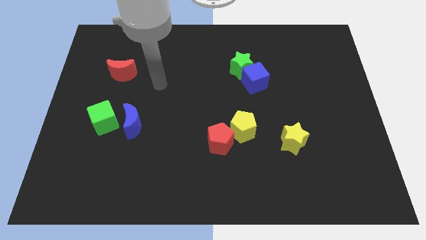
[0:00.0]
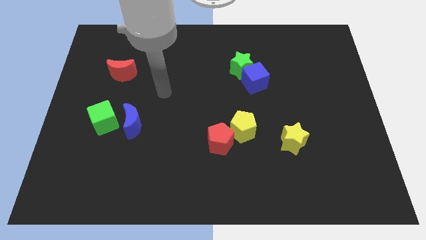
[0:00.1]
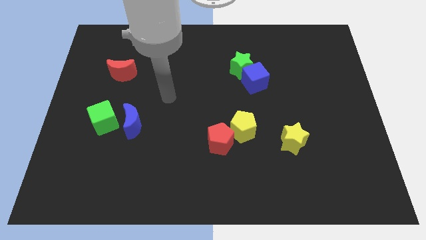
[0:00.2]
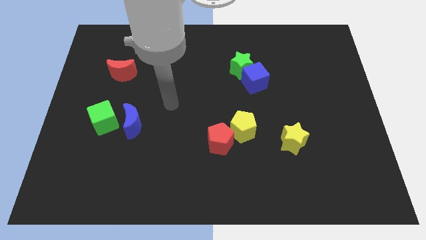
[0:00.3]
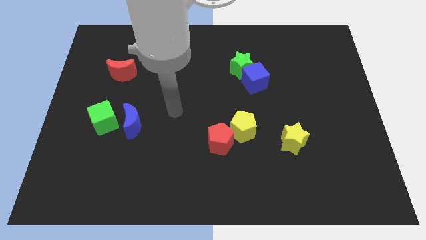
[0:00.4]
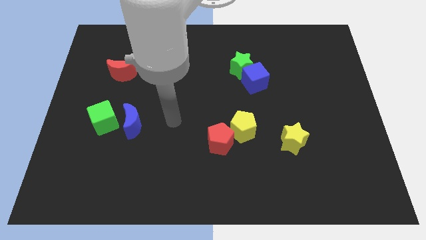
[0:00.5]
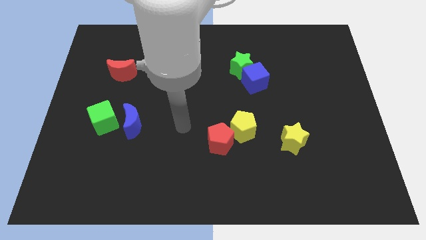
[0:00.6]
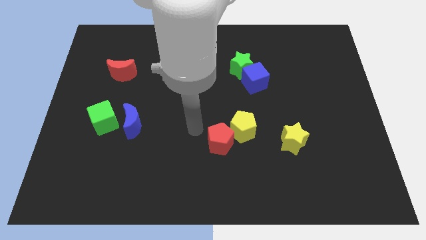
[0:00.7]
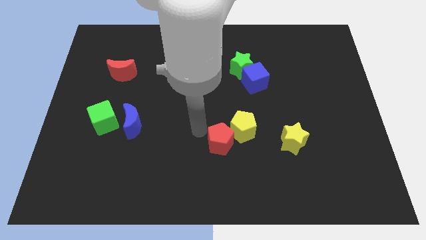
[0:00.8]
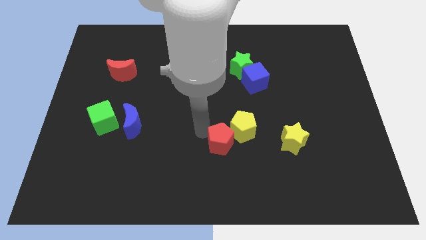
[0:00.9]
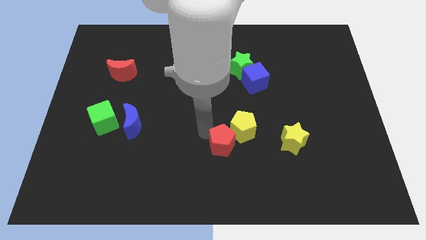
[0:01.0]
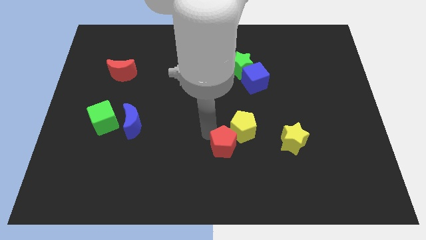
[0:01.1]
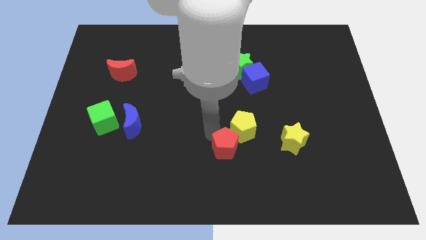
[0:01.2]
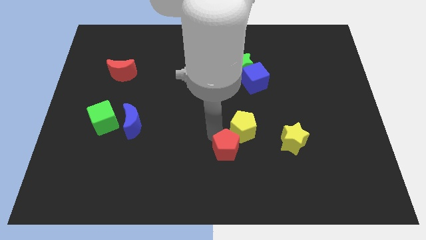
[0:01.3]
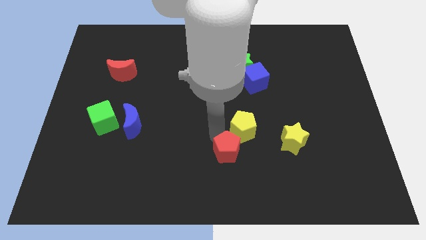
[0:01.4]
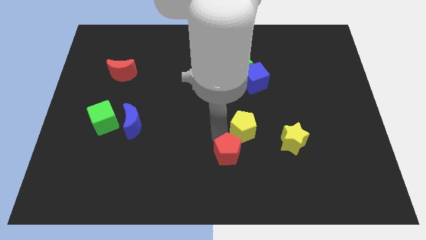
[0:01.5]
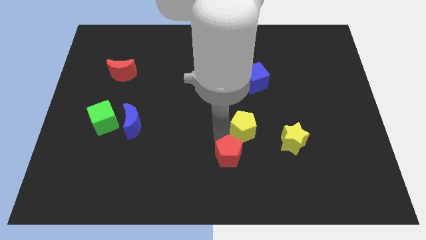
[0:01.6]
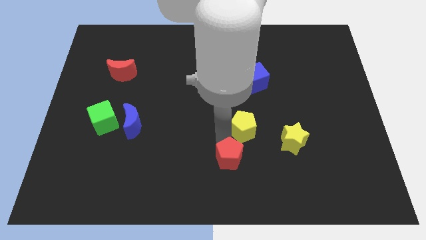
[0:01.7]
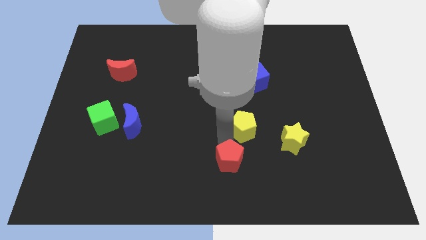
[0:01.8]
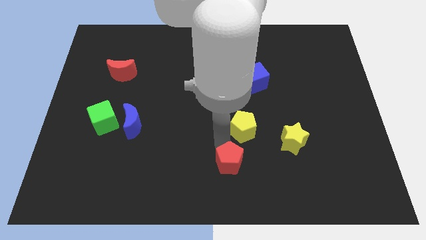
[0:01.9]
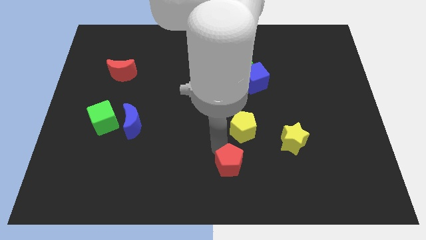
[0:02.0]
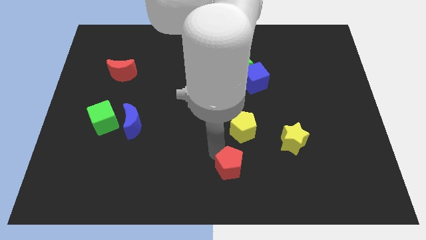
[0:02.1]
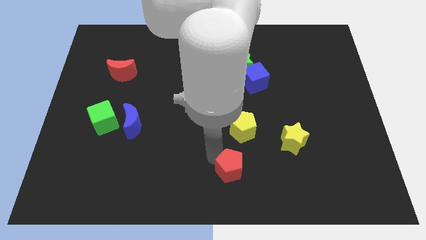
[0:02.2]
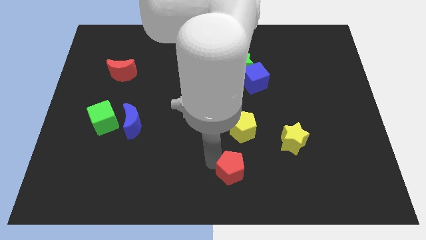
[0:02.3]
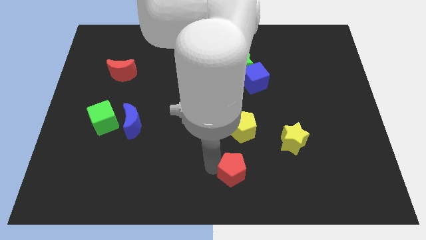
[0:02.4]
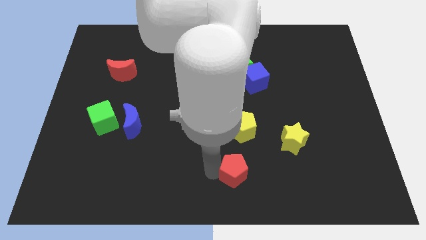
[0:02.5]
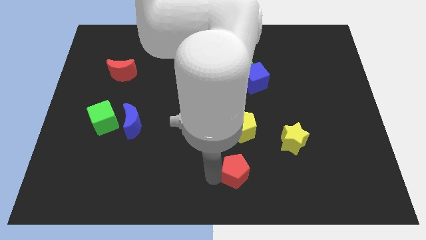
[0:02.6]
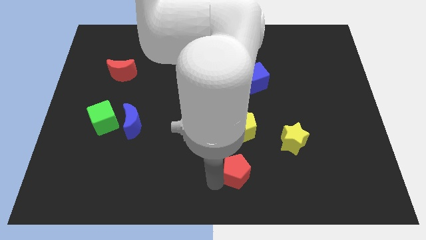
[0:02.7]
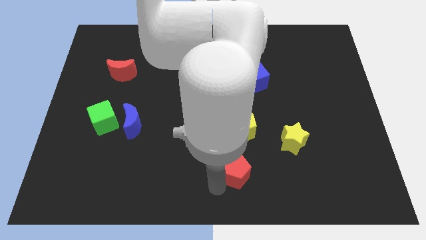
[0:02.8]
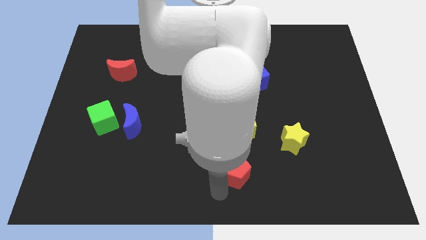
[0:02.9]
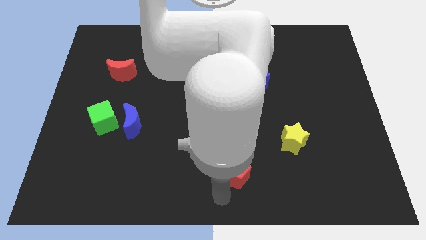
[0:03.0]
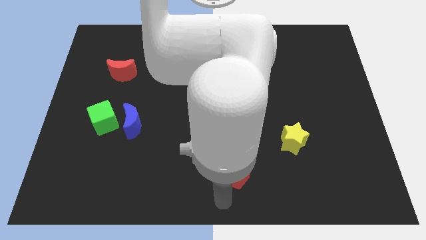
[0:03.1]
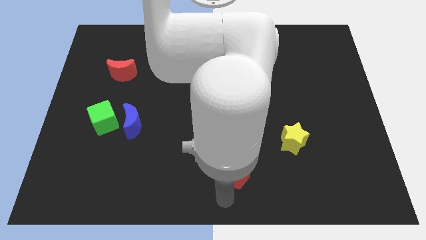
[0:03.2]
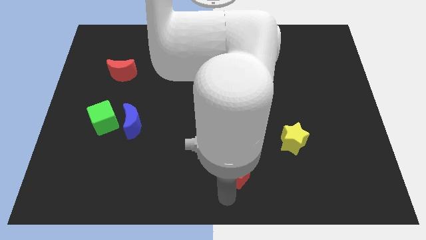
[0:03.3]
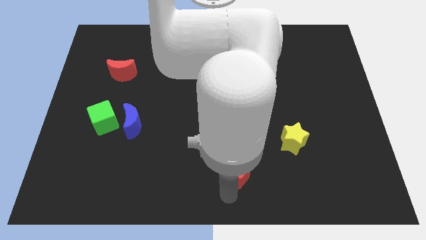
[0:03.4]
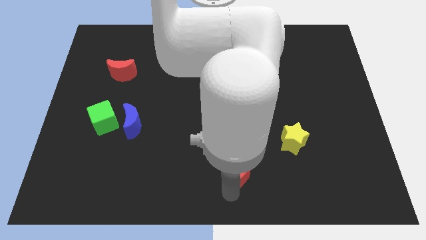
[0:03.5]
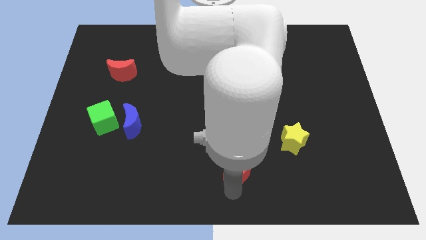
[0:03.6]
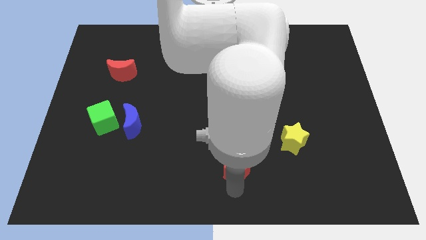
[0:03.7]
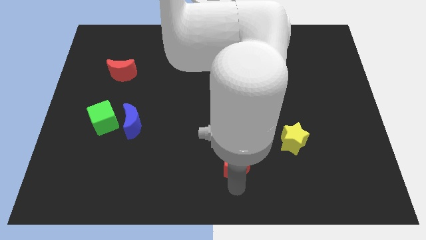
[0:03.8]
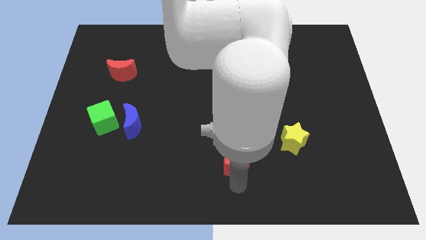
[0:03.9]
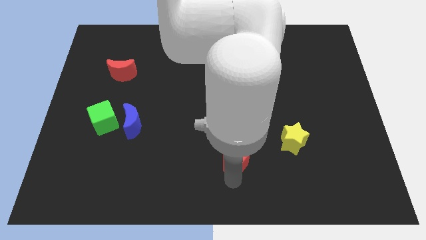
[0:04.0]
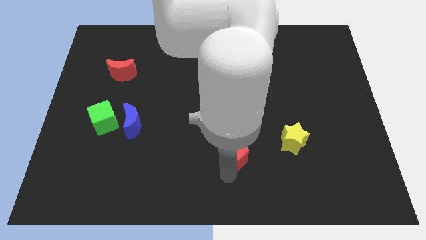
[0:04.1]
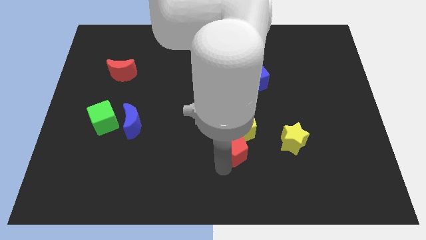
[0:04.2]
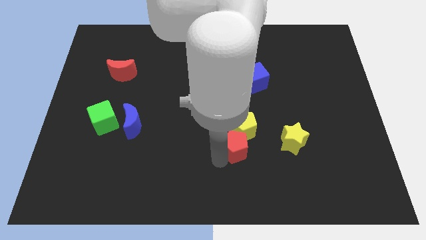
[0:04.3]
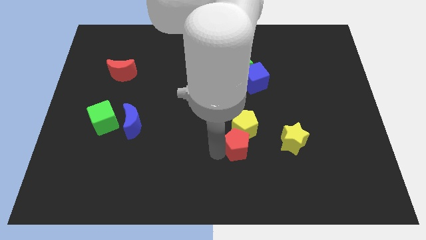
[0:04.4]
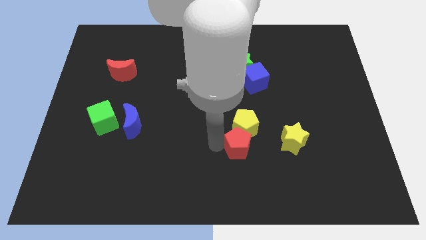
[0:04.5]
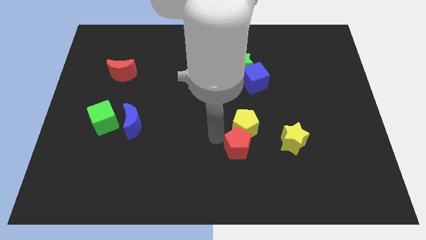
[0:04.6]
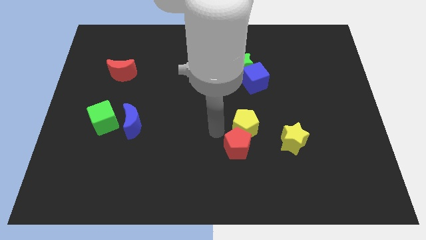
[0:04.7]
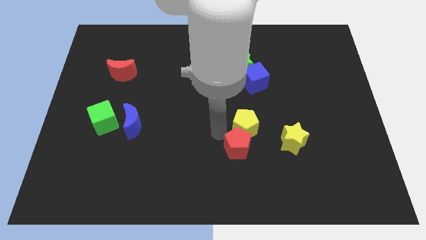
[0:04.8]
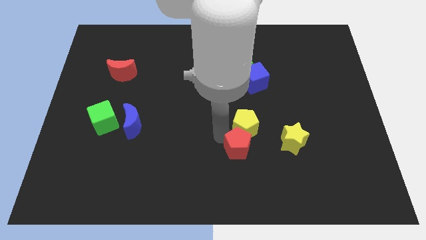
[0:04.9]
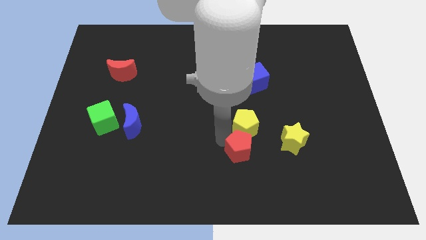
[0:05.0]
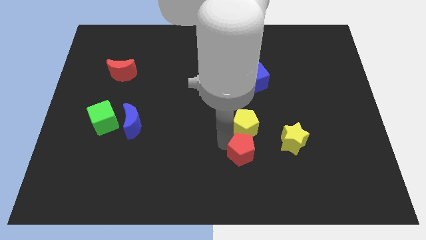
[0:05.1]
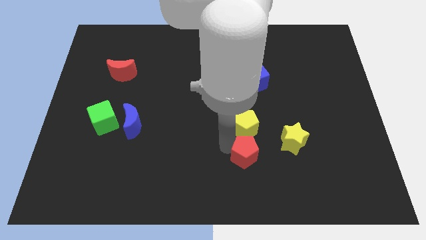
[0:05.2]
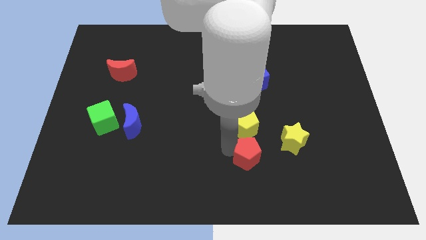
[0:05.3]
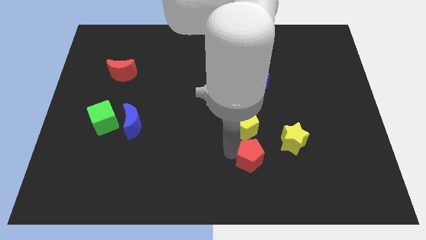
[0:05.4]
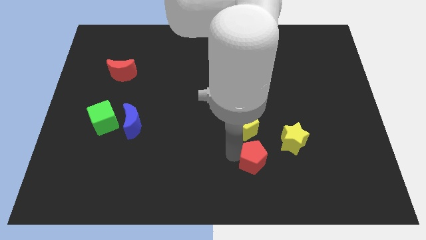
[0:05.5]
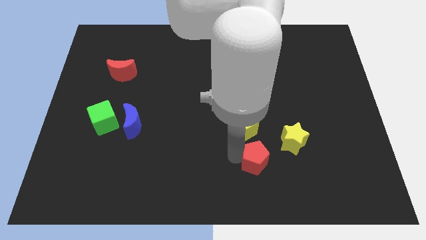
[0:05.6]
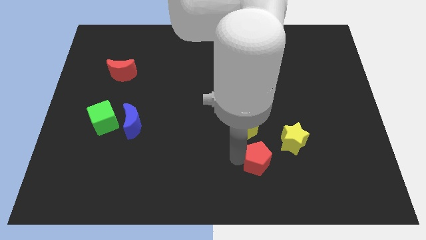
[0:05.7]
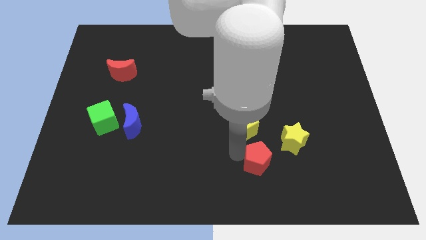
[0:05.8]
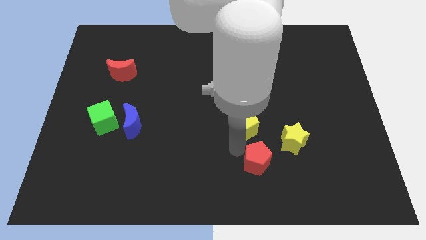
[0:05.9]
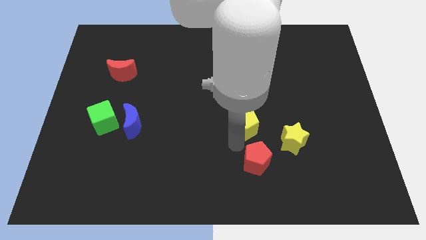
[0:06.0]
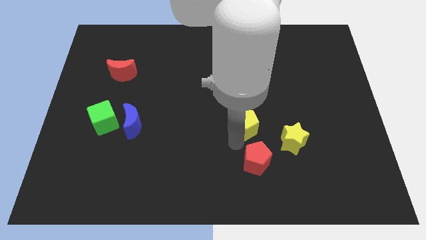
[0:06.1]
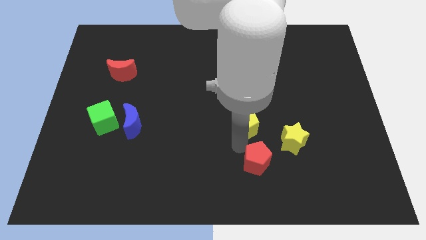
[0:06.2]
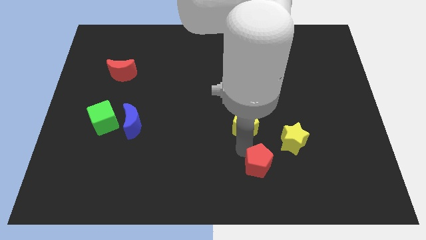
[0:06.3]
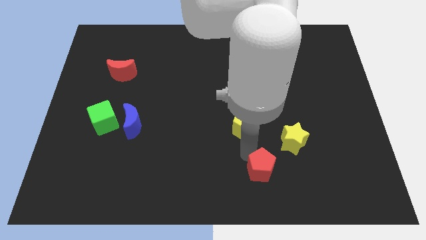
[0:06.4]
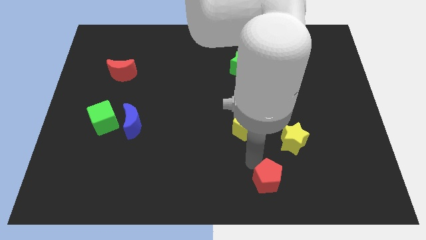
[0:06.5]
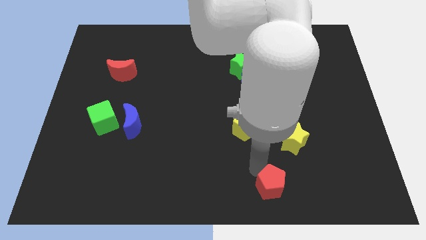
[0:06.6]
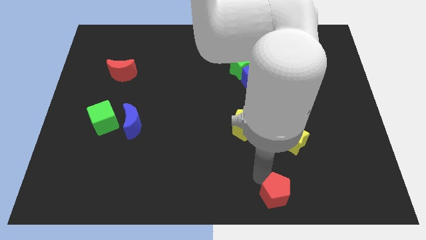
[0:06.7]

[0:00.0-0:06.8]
put the red pentagon to the bottom of the yellow star

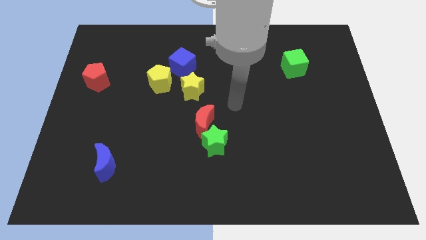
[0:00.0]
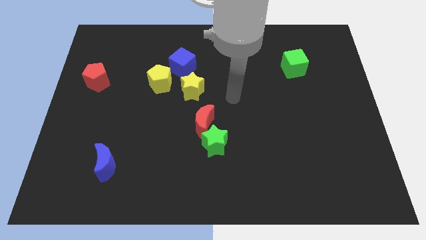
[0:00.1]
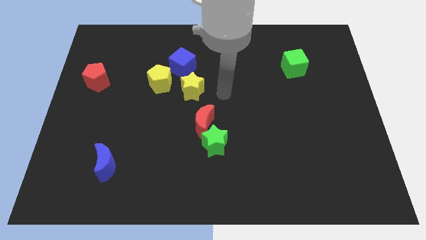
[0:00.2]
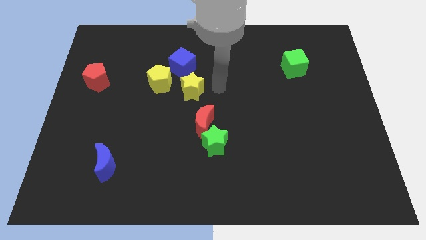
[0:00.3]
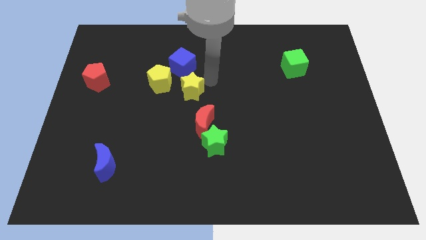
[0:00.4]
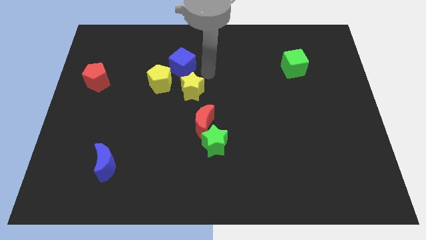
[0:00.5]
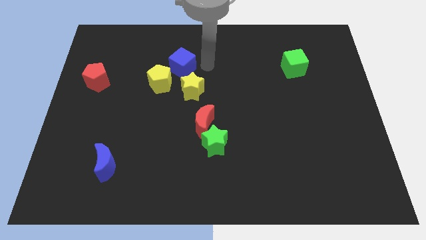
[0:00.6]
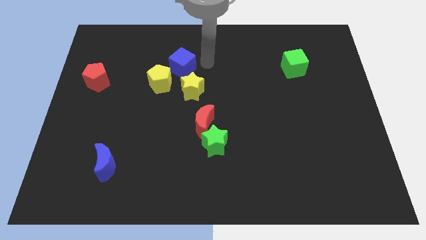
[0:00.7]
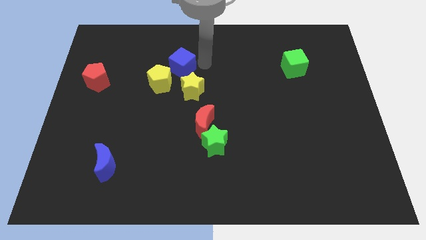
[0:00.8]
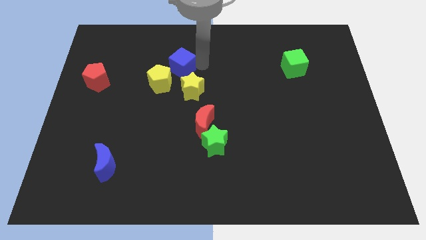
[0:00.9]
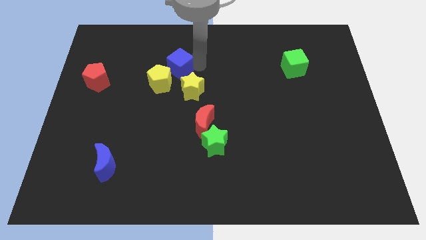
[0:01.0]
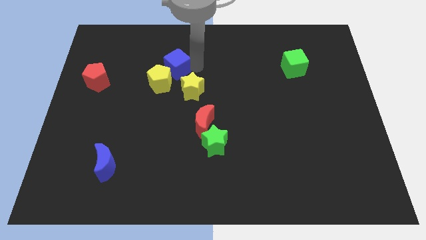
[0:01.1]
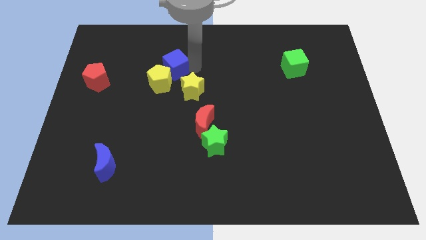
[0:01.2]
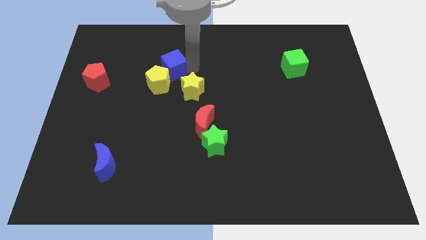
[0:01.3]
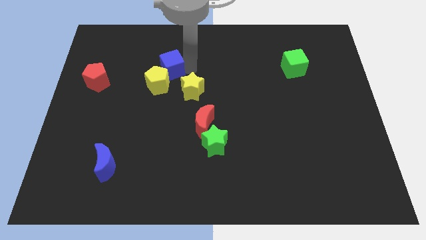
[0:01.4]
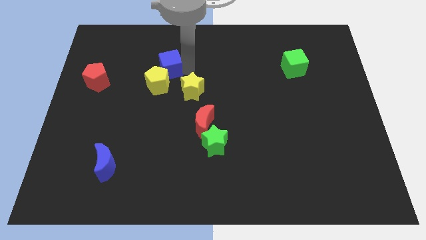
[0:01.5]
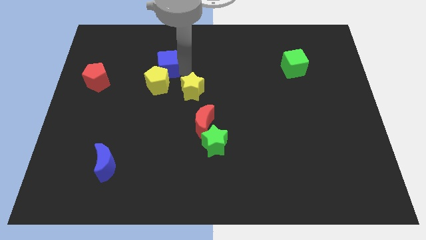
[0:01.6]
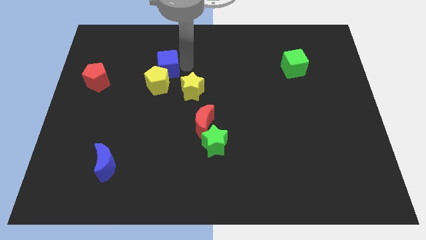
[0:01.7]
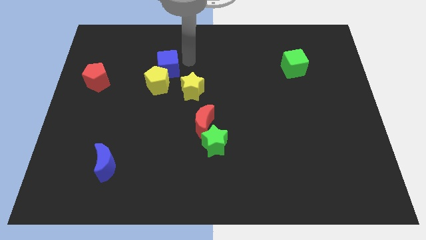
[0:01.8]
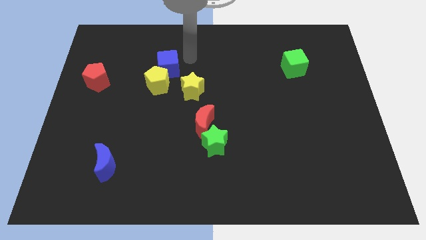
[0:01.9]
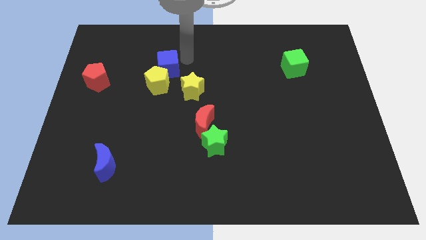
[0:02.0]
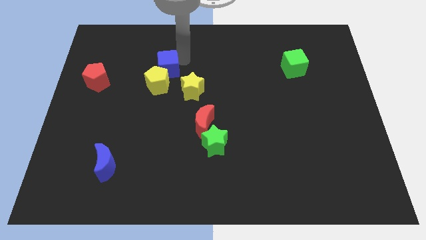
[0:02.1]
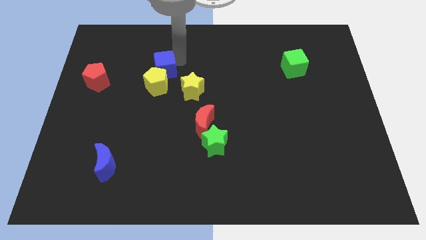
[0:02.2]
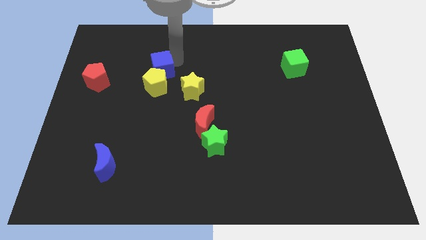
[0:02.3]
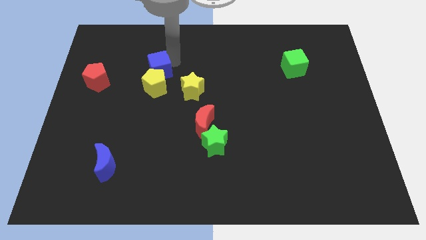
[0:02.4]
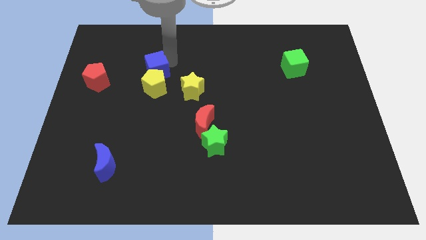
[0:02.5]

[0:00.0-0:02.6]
put the blue cube to the right of the red pentagon
